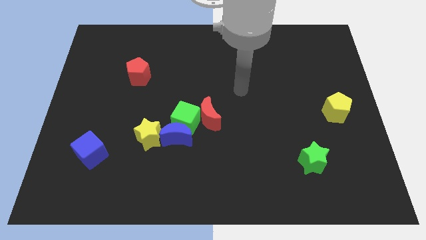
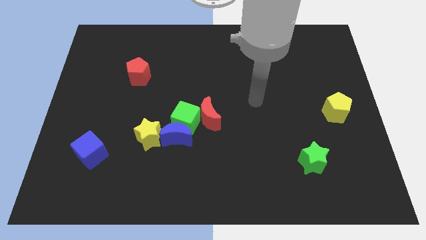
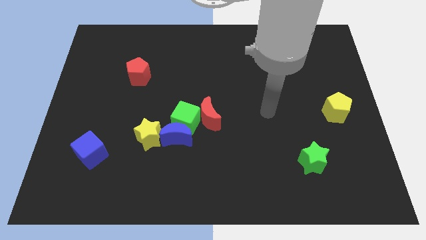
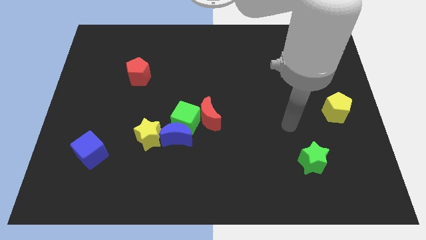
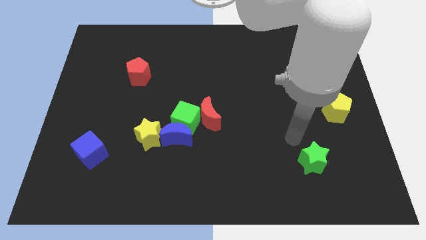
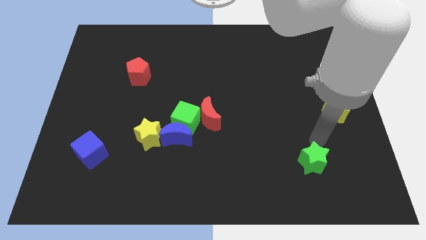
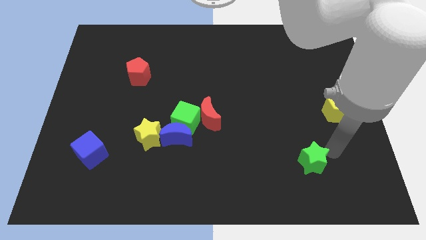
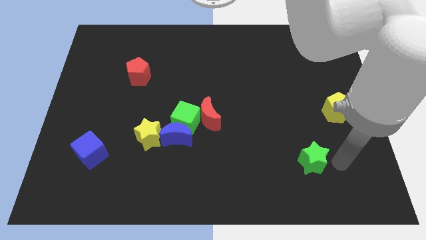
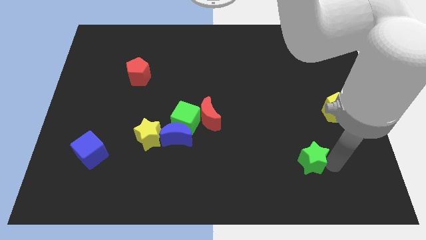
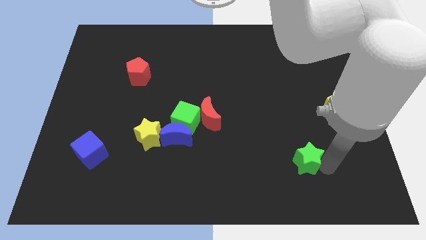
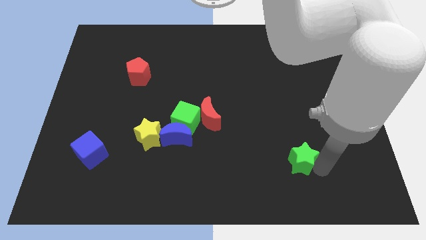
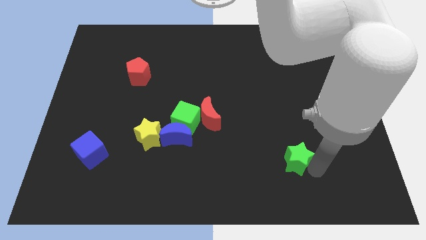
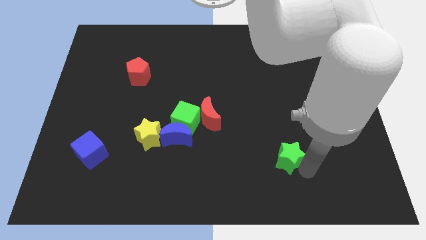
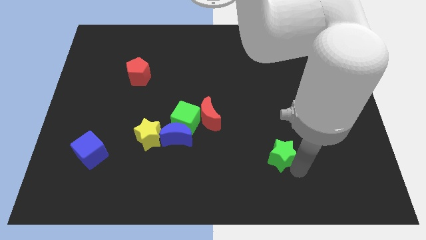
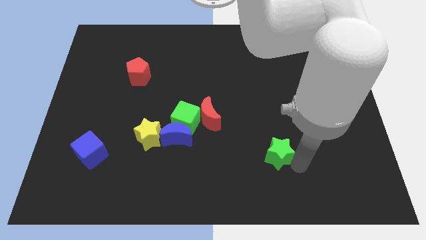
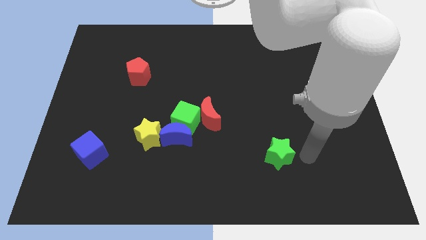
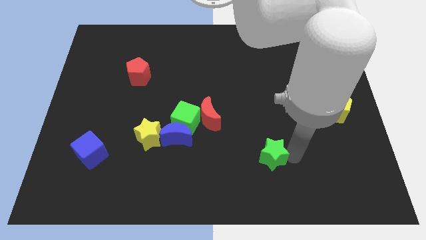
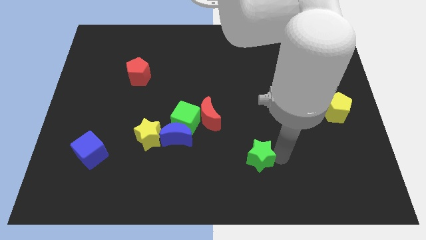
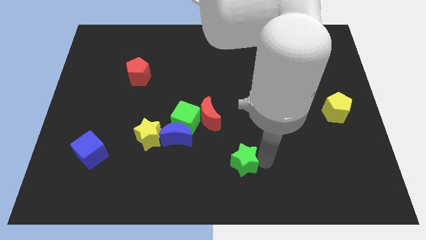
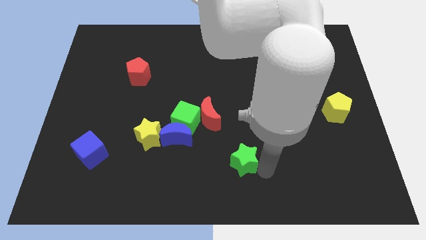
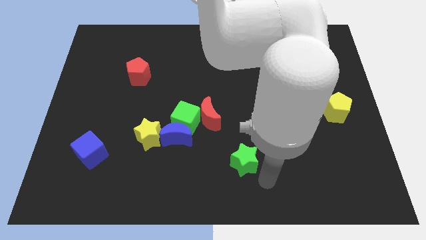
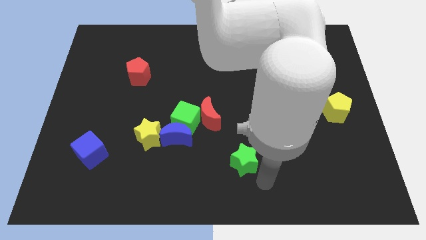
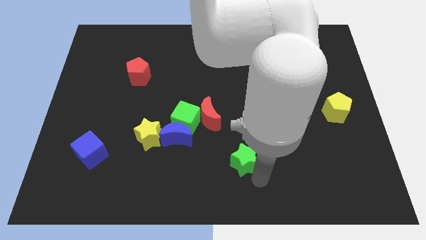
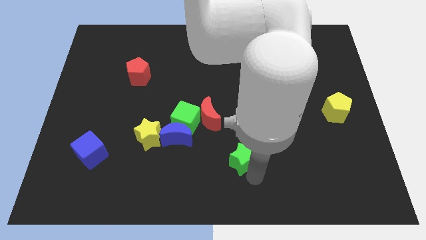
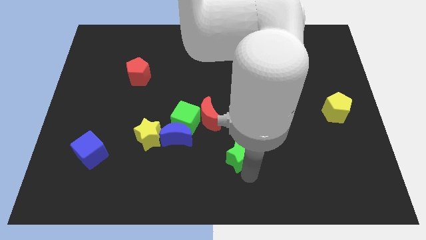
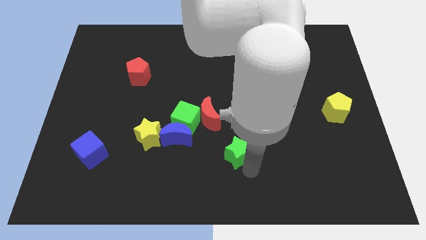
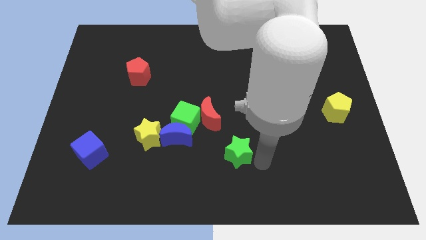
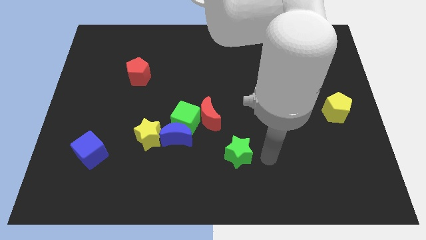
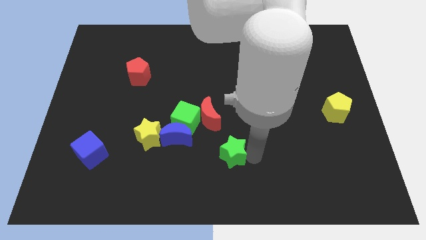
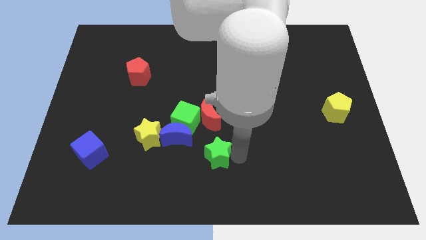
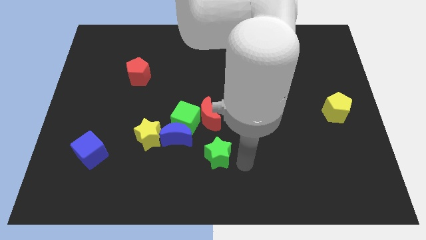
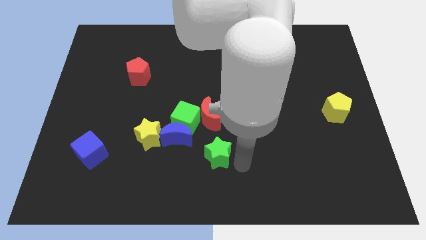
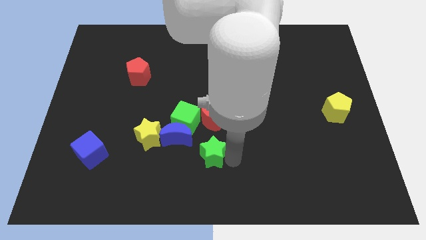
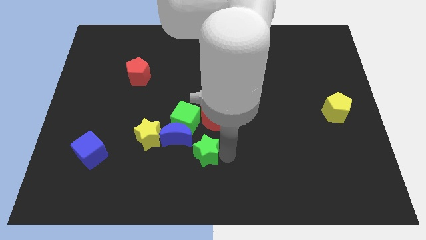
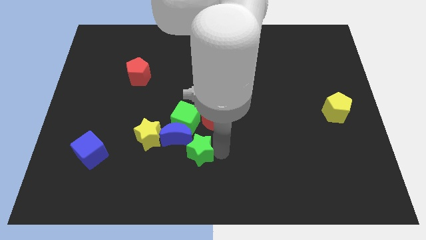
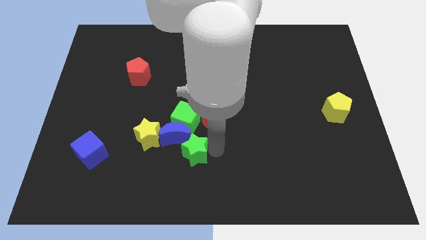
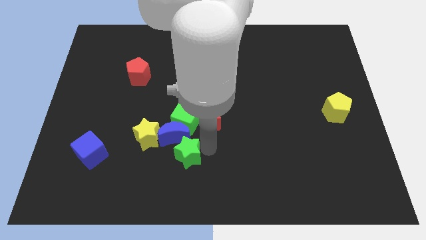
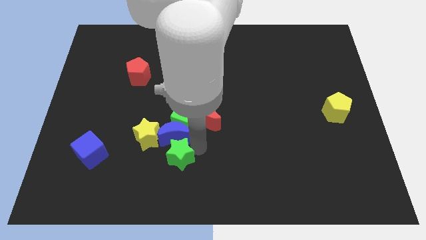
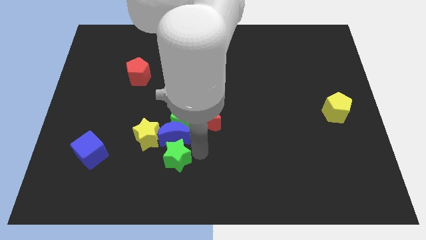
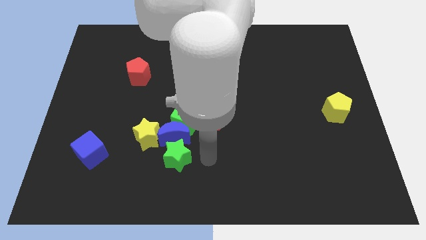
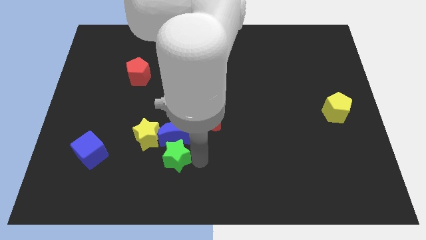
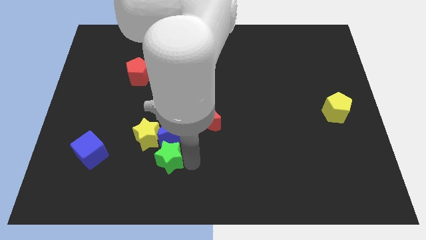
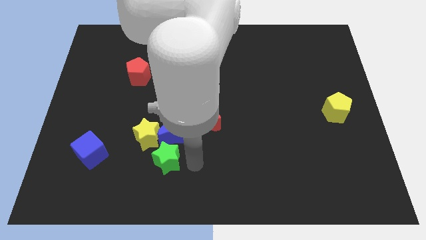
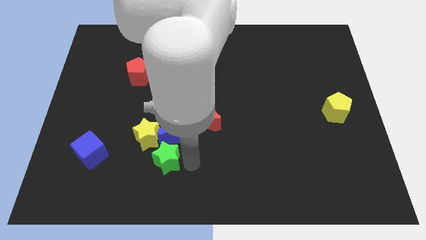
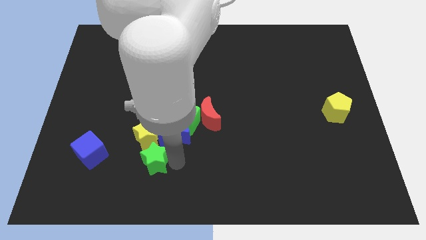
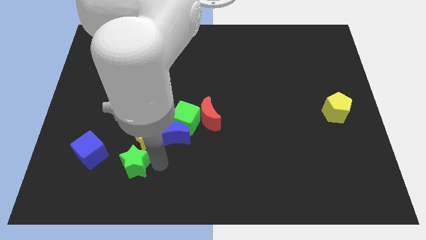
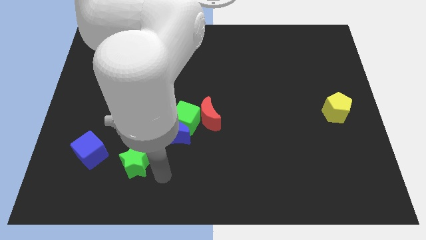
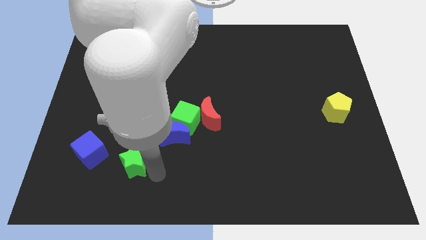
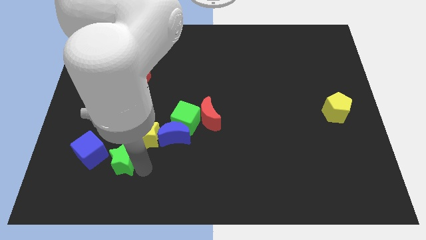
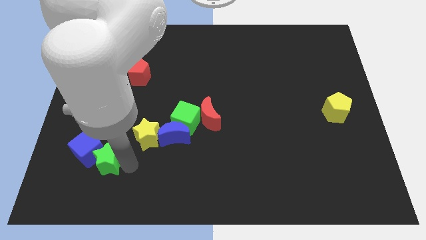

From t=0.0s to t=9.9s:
move the green star towards the blue cube

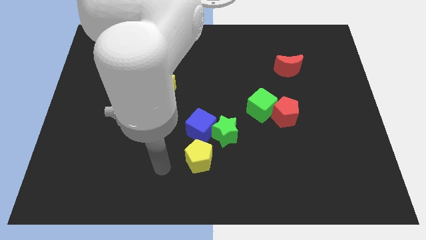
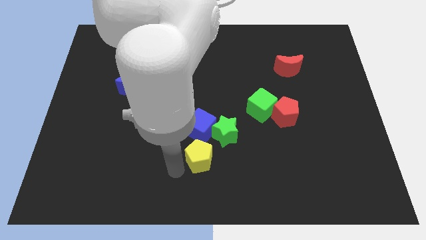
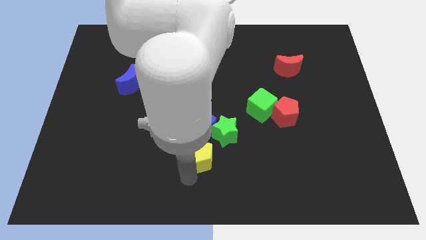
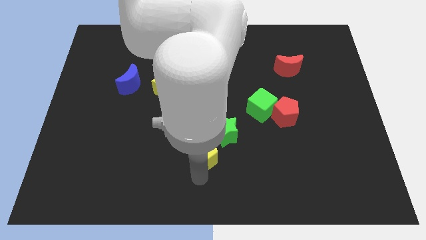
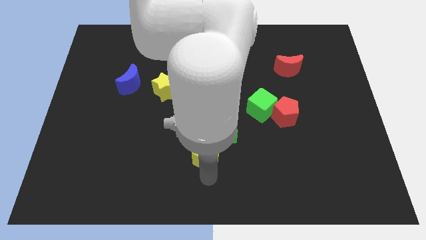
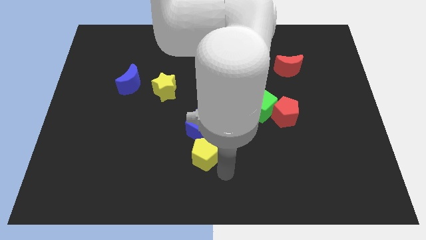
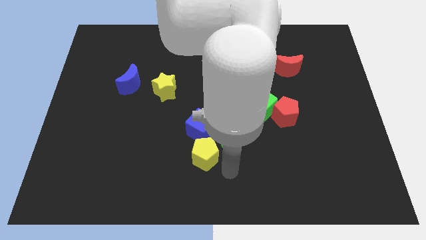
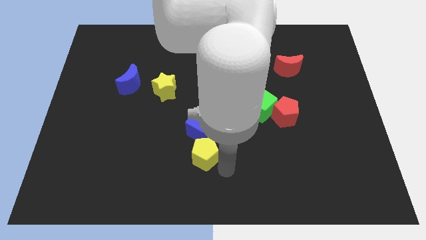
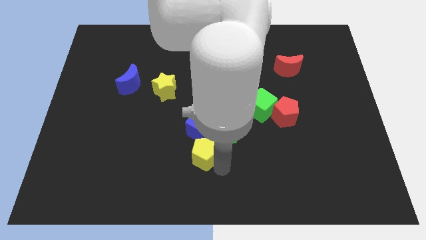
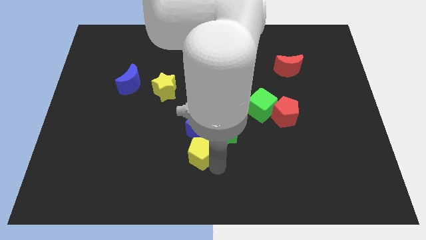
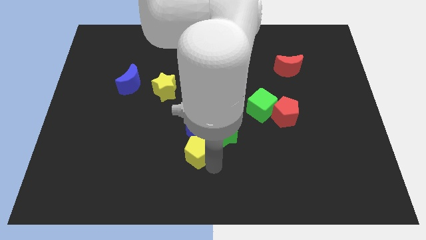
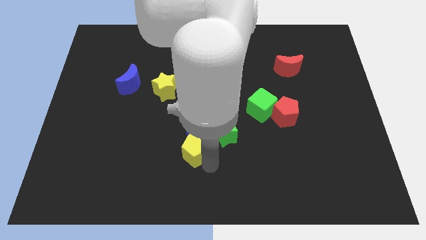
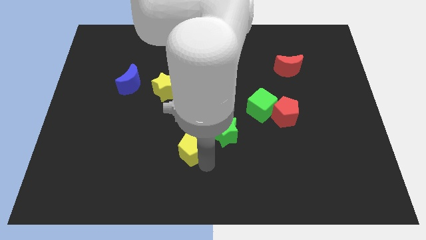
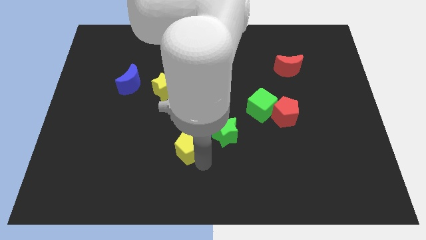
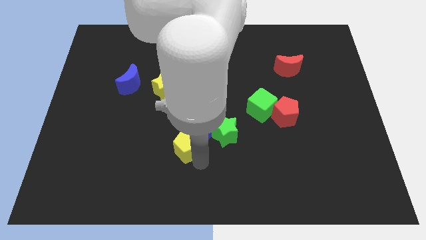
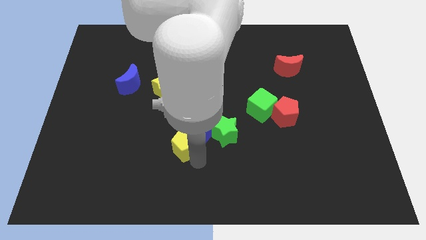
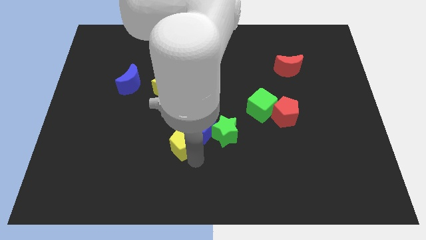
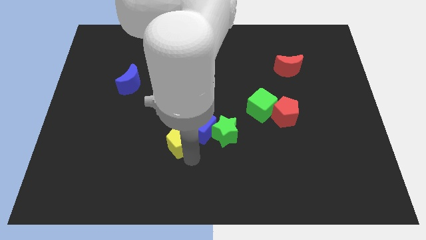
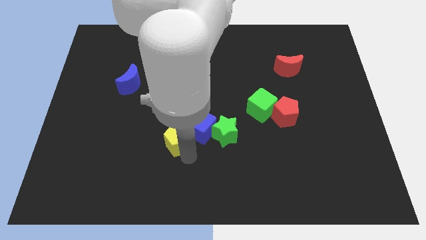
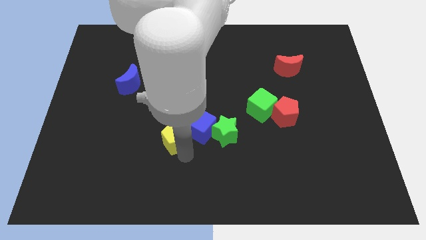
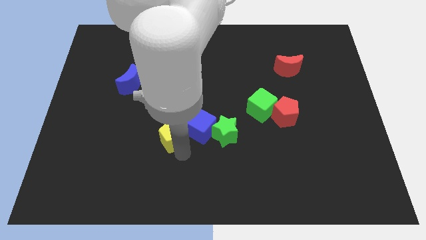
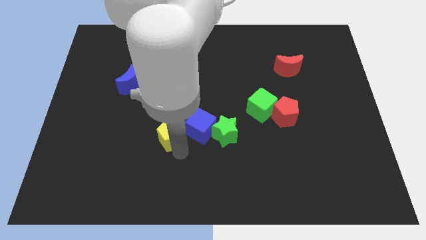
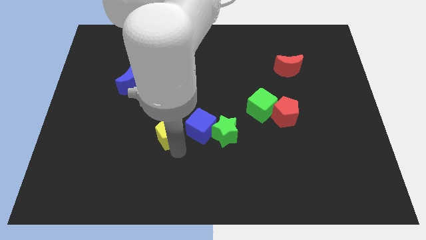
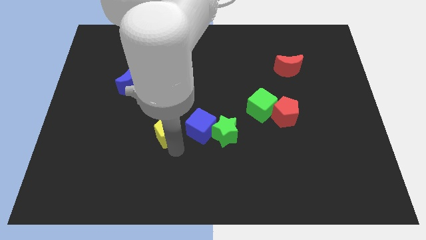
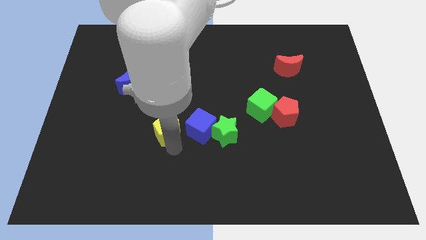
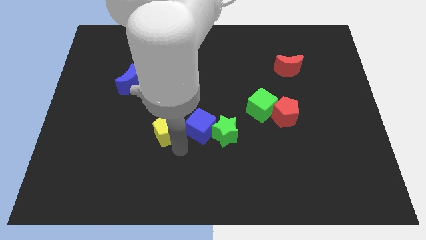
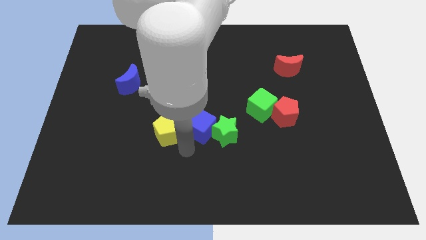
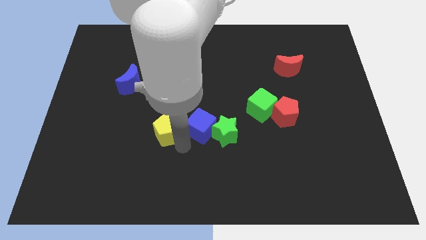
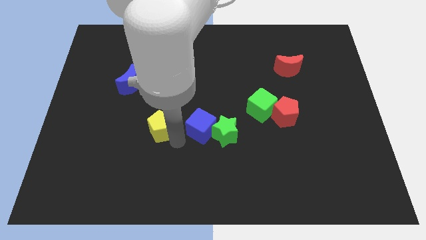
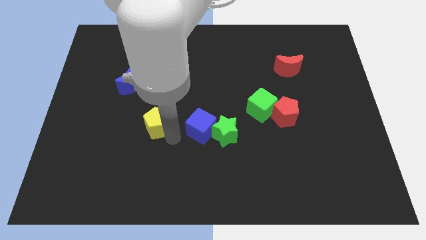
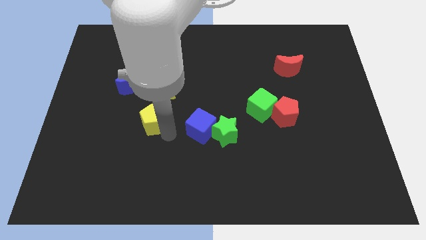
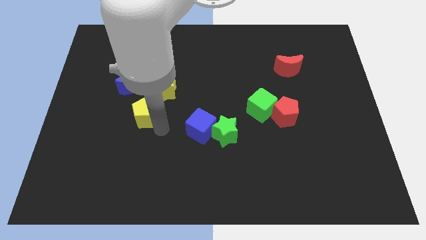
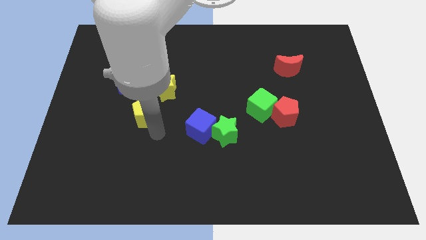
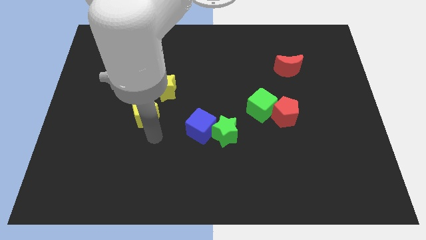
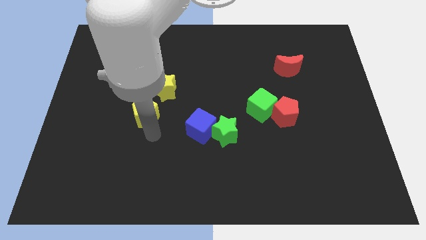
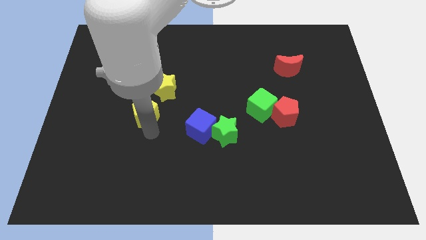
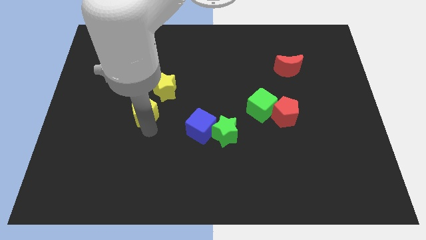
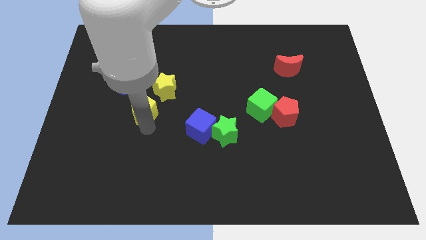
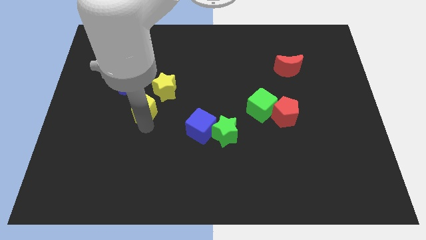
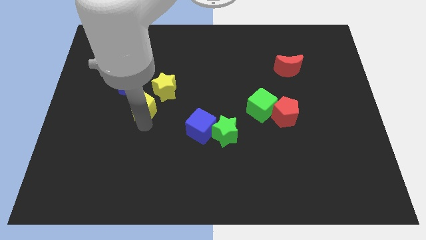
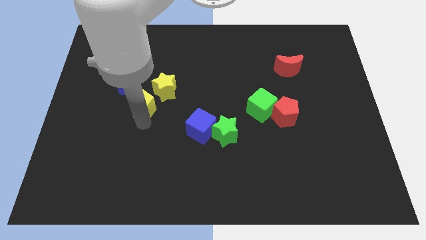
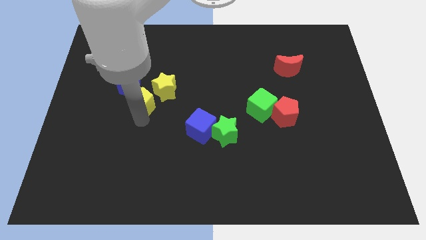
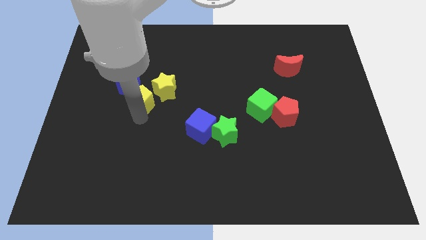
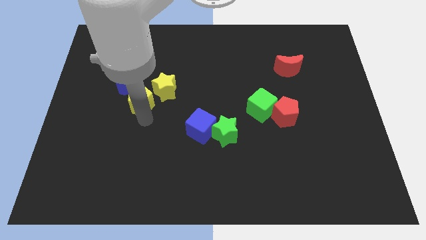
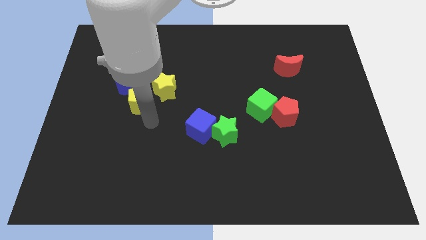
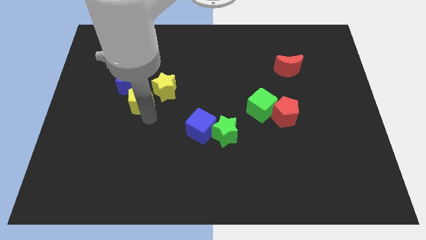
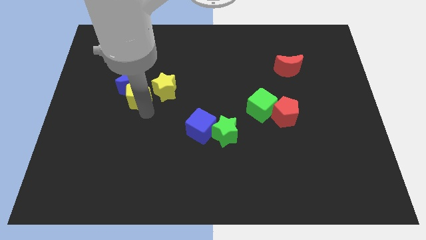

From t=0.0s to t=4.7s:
push the yellow pentagon next to the blue moon
